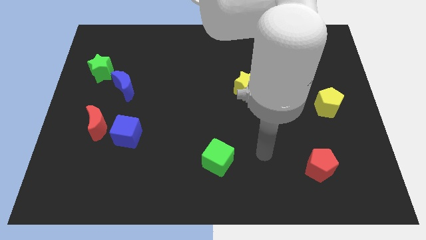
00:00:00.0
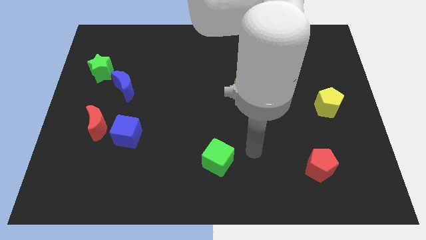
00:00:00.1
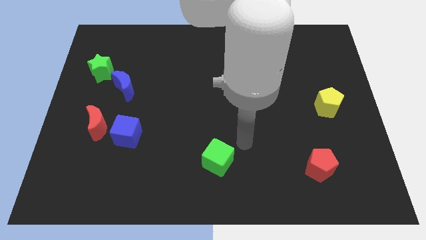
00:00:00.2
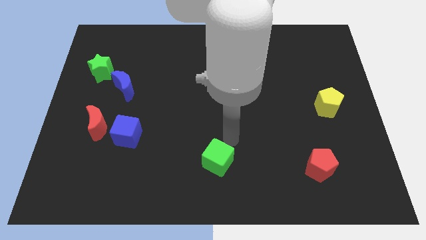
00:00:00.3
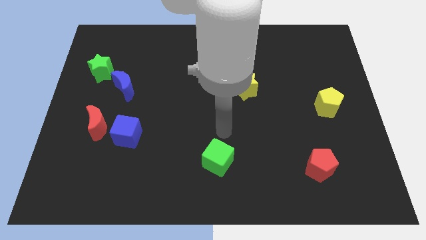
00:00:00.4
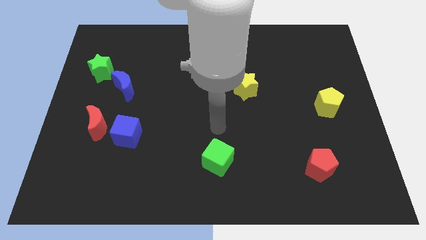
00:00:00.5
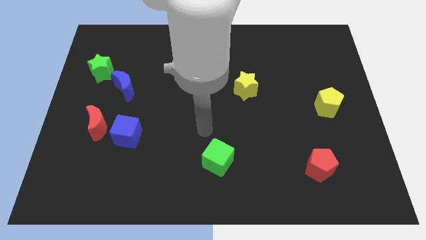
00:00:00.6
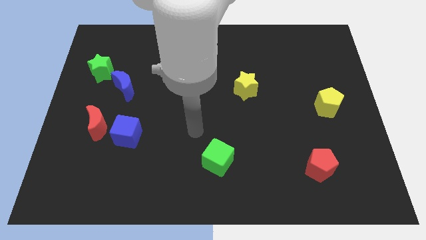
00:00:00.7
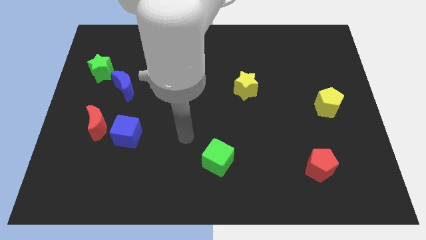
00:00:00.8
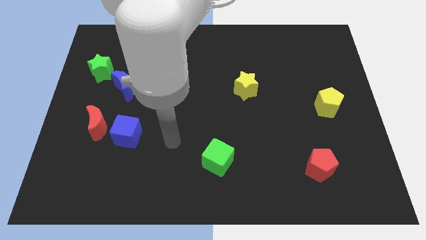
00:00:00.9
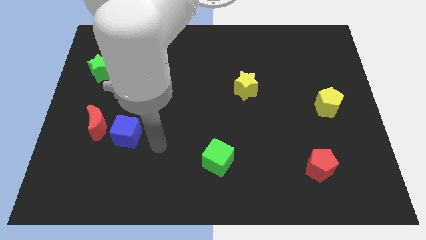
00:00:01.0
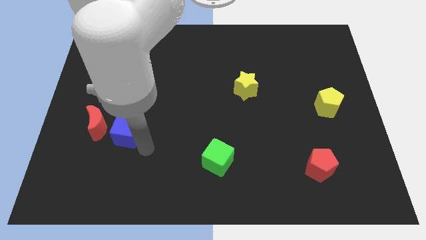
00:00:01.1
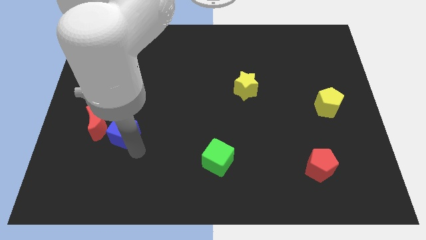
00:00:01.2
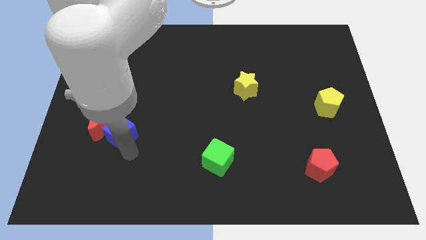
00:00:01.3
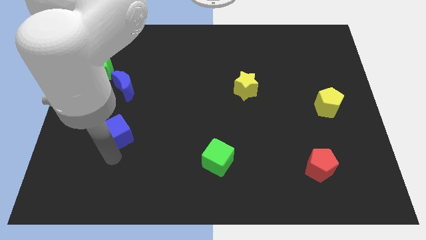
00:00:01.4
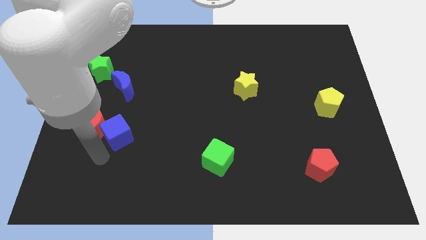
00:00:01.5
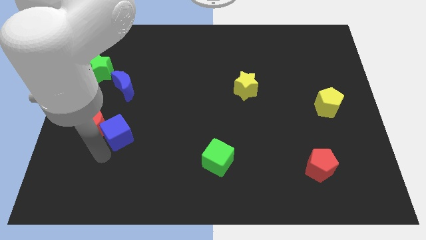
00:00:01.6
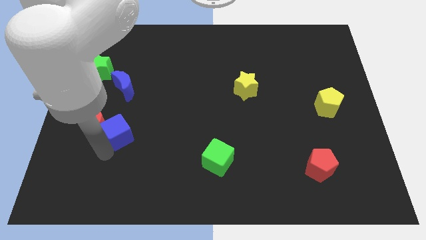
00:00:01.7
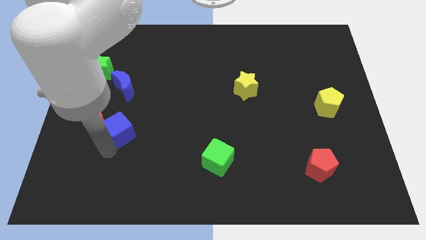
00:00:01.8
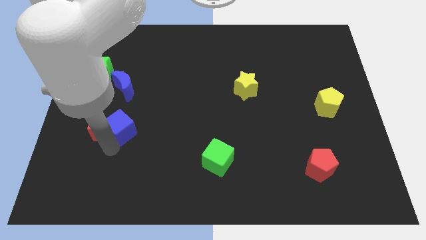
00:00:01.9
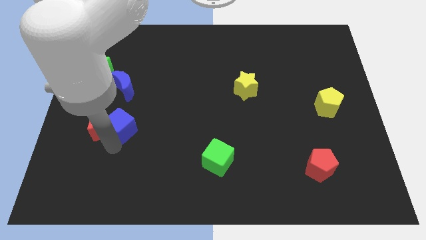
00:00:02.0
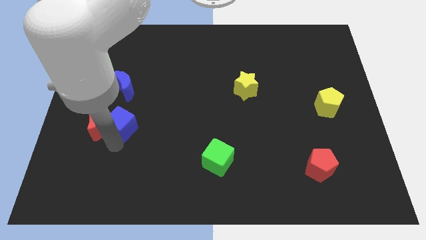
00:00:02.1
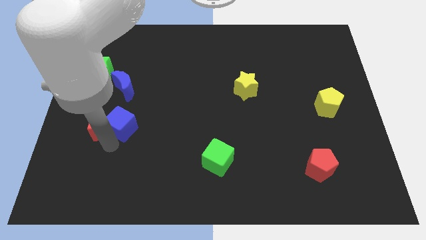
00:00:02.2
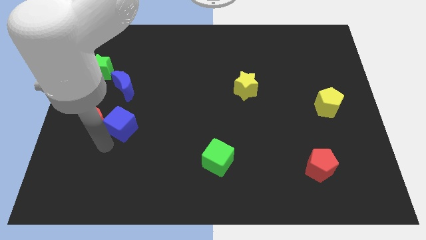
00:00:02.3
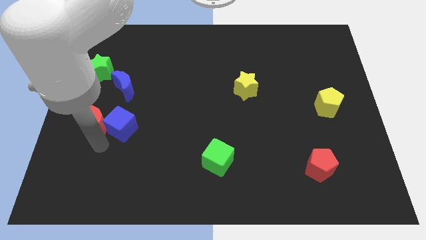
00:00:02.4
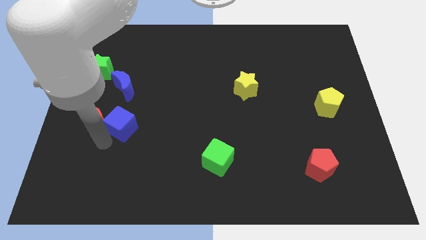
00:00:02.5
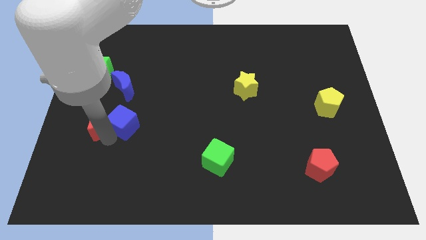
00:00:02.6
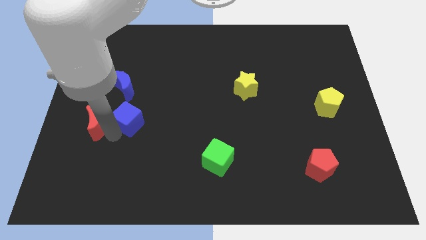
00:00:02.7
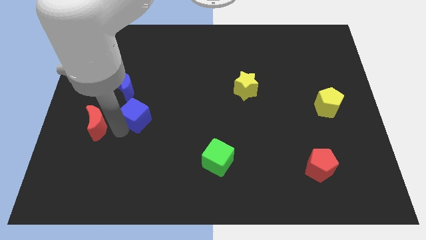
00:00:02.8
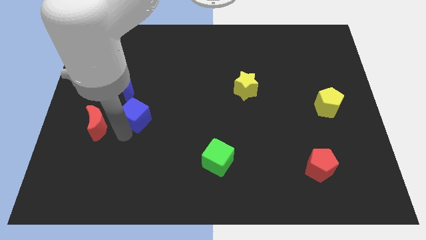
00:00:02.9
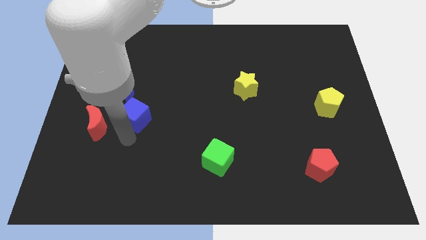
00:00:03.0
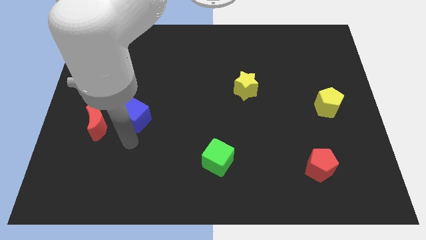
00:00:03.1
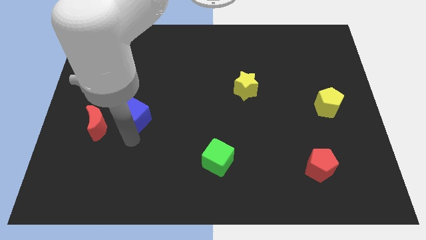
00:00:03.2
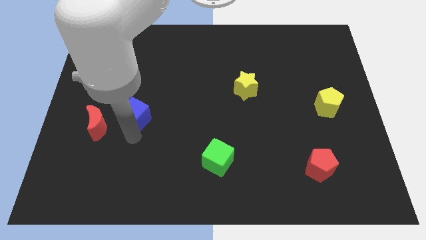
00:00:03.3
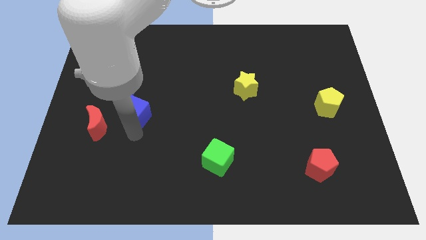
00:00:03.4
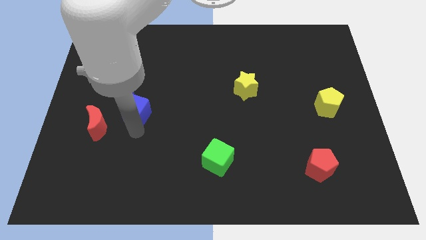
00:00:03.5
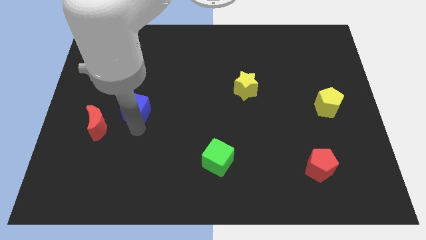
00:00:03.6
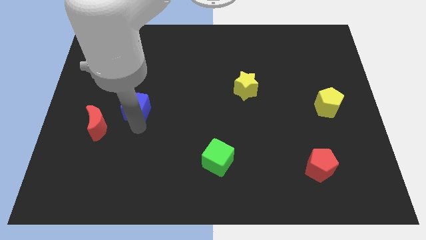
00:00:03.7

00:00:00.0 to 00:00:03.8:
move the blue cube upwards somewhat

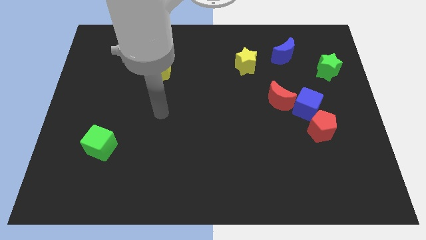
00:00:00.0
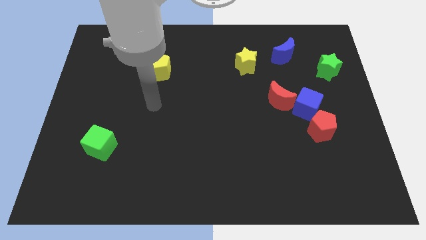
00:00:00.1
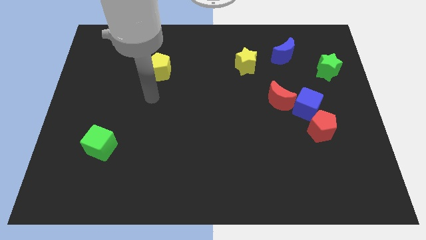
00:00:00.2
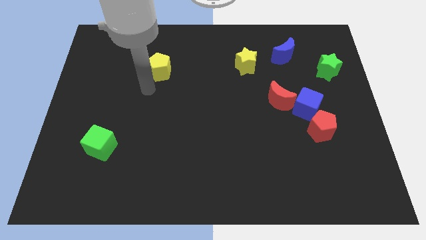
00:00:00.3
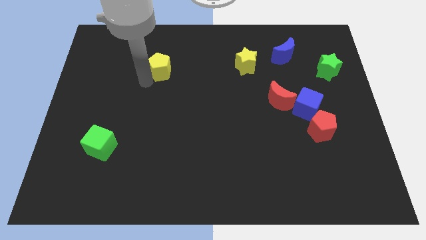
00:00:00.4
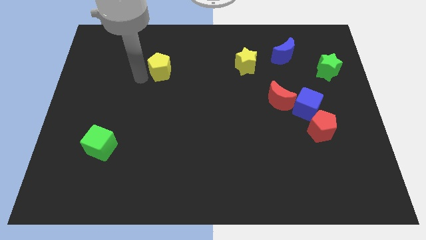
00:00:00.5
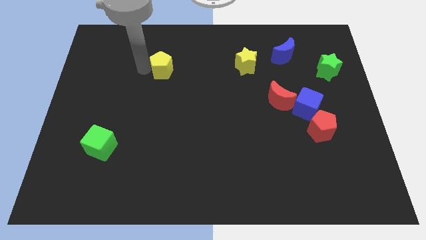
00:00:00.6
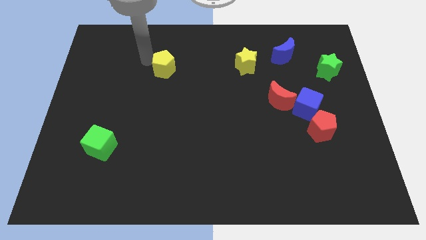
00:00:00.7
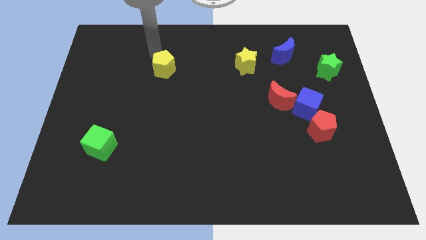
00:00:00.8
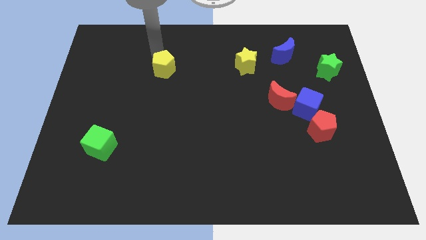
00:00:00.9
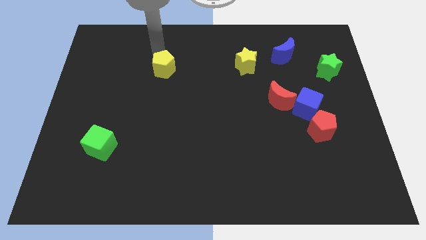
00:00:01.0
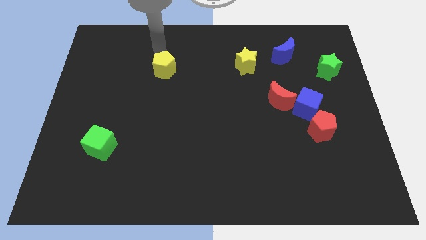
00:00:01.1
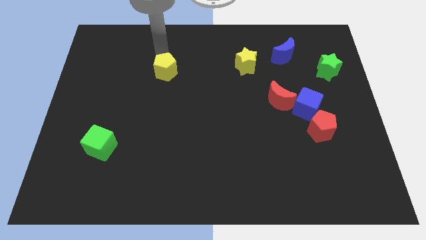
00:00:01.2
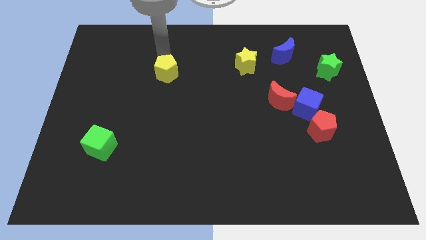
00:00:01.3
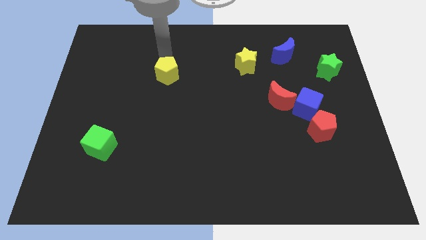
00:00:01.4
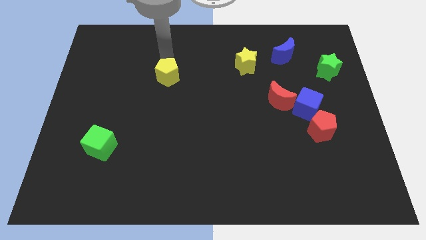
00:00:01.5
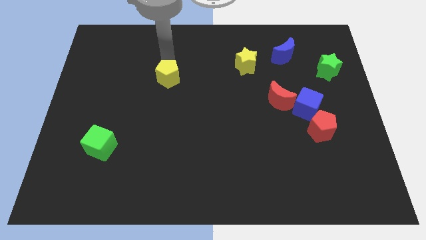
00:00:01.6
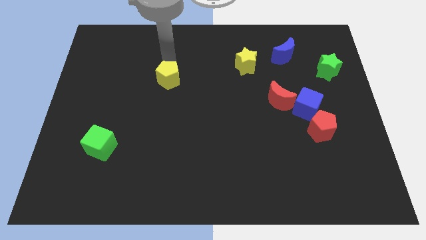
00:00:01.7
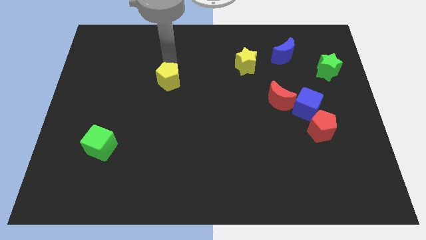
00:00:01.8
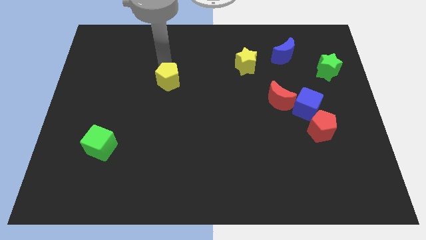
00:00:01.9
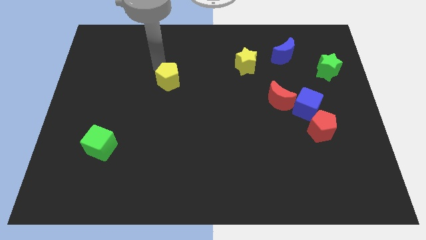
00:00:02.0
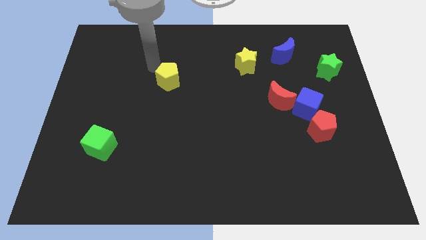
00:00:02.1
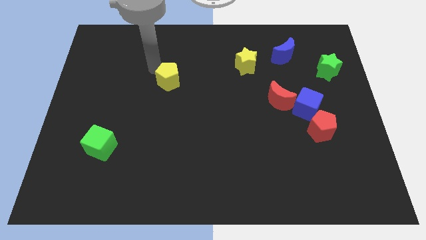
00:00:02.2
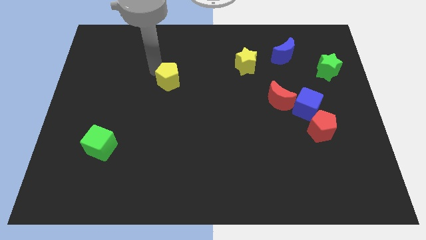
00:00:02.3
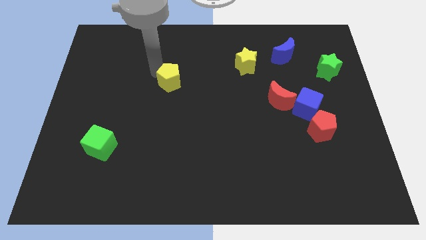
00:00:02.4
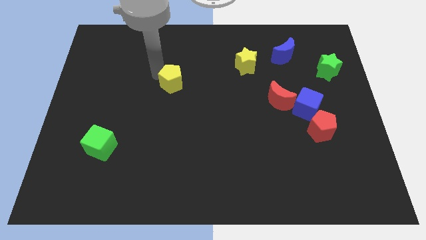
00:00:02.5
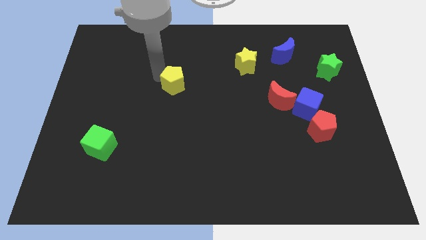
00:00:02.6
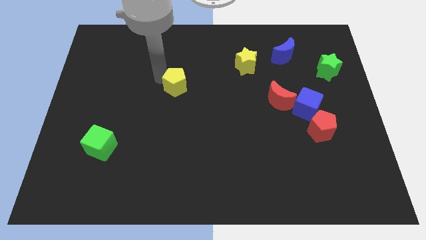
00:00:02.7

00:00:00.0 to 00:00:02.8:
slightly push the yellow pentagon diagonally downwards and right

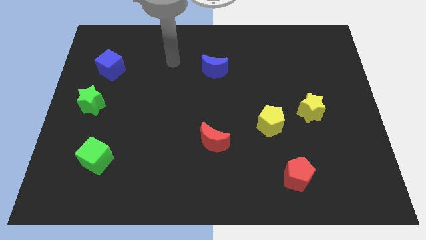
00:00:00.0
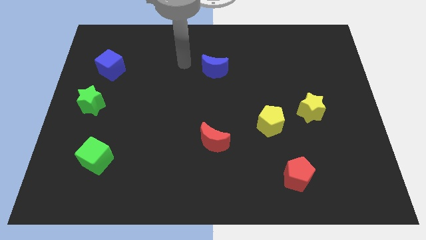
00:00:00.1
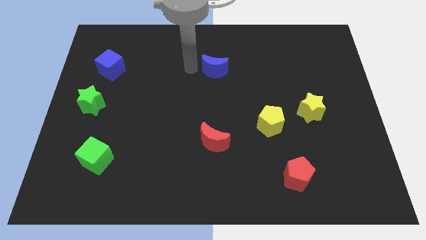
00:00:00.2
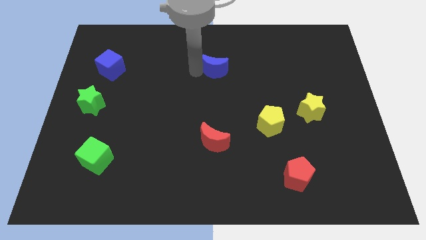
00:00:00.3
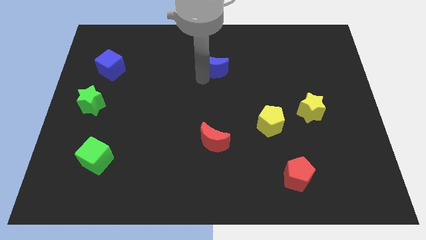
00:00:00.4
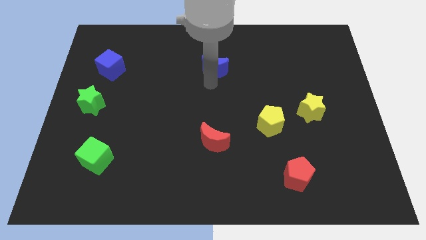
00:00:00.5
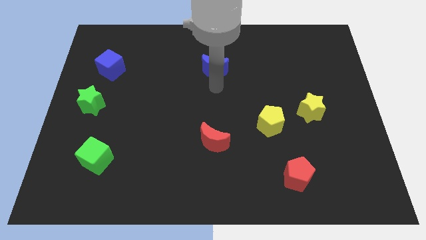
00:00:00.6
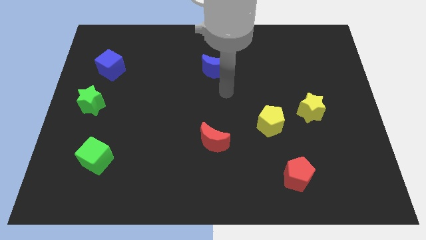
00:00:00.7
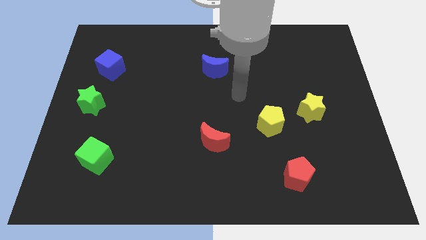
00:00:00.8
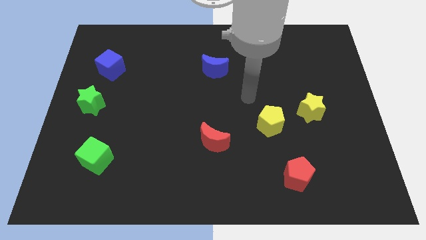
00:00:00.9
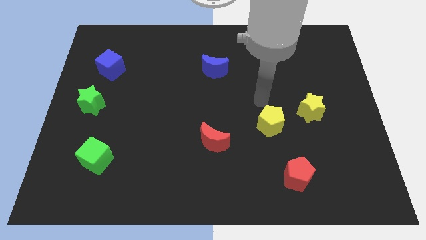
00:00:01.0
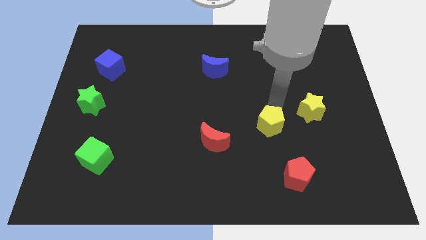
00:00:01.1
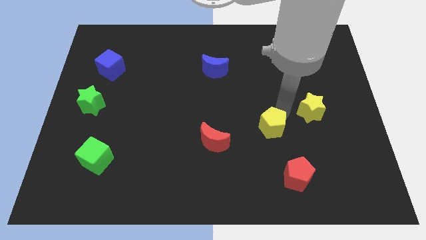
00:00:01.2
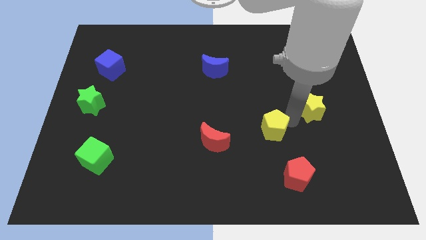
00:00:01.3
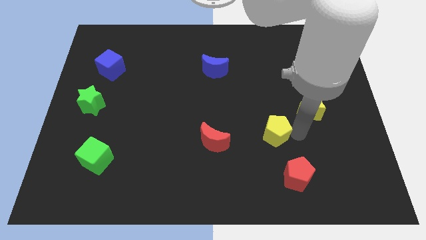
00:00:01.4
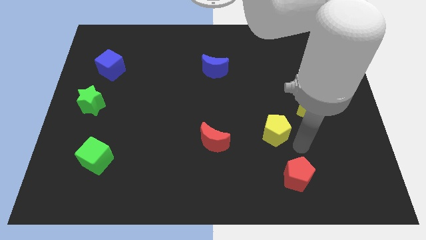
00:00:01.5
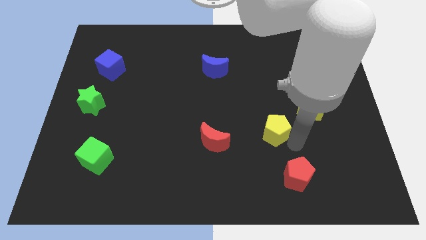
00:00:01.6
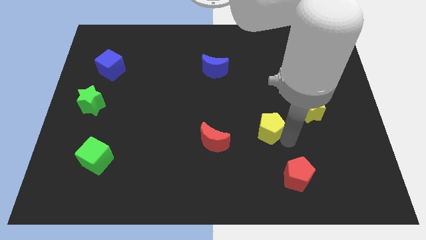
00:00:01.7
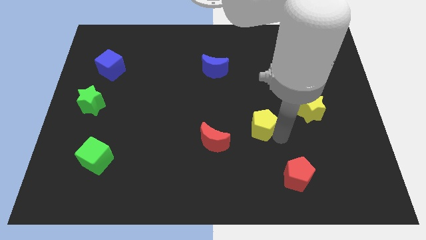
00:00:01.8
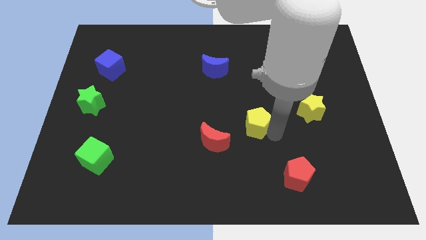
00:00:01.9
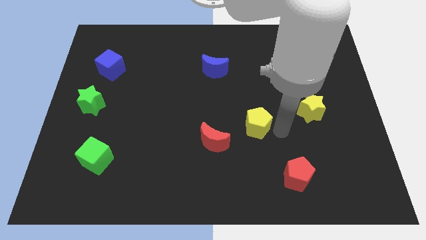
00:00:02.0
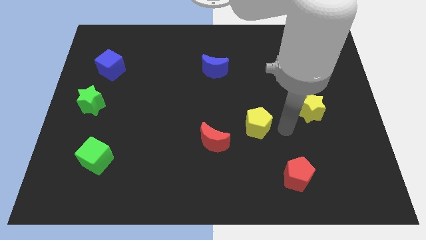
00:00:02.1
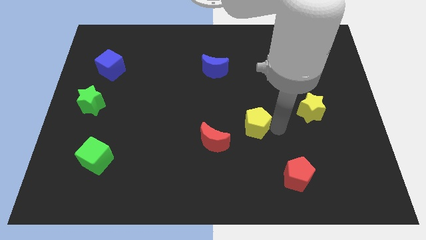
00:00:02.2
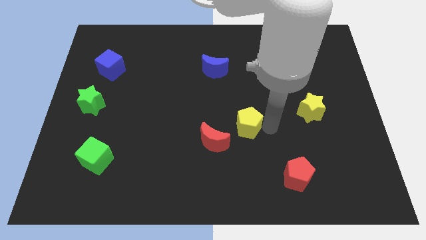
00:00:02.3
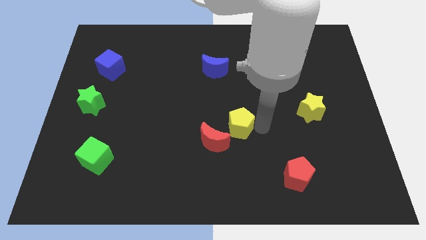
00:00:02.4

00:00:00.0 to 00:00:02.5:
slightly slide the yellow pentagon to the left
